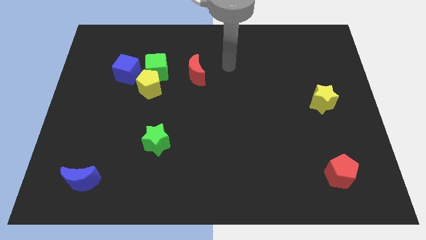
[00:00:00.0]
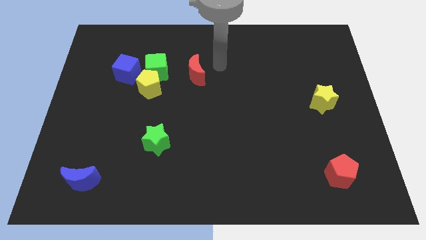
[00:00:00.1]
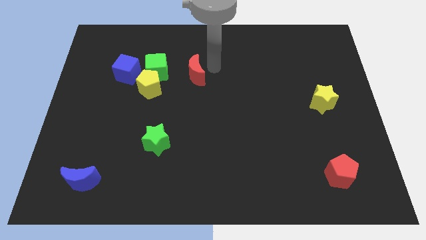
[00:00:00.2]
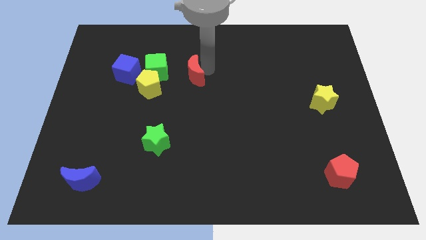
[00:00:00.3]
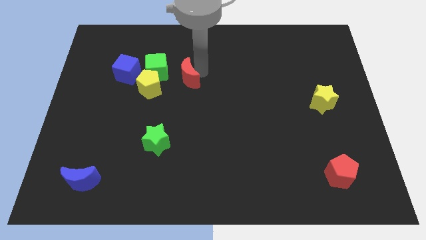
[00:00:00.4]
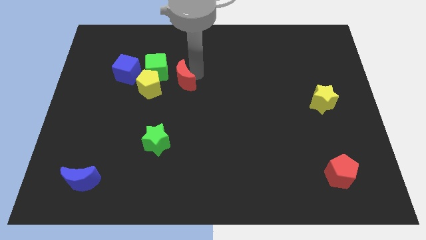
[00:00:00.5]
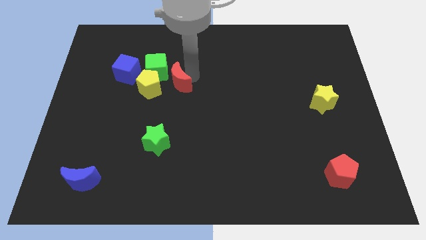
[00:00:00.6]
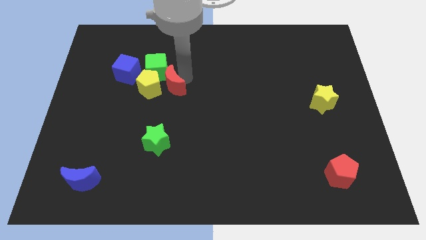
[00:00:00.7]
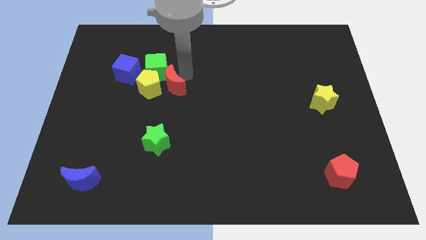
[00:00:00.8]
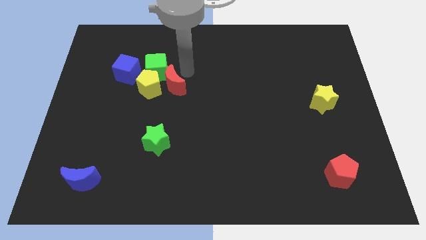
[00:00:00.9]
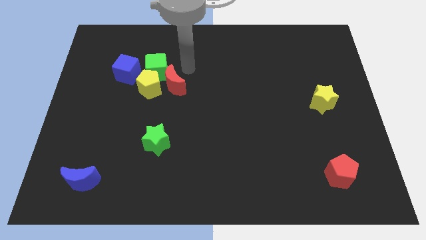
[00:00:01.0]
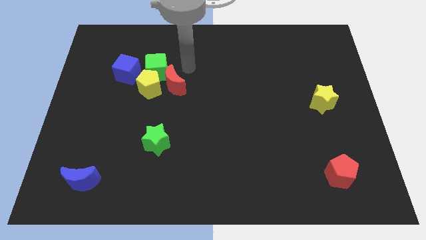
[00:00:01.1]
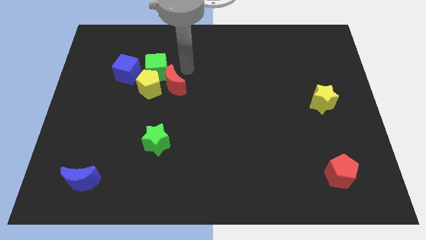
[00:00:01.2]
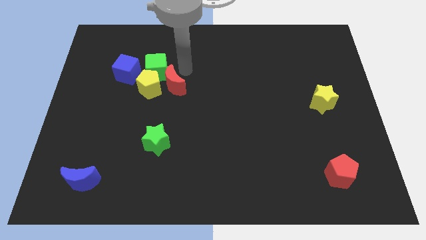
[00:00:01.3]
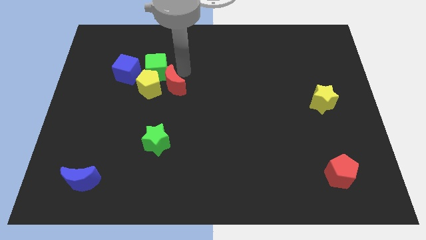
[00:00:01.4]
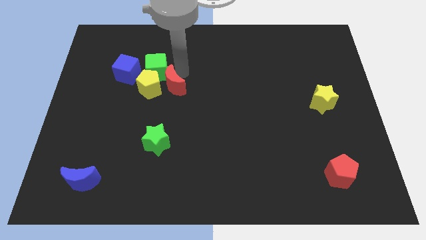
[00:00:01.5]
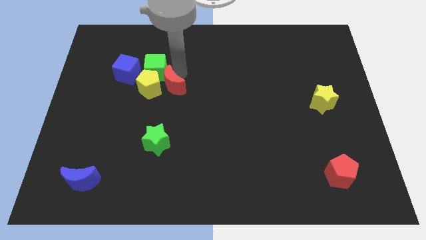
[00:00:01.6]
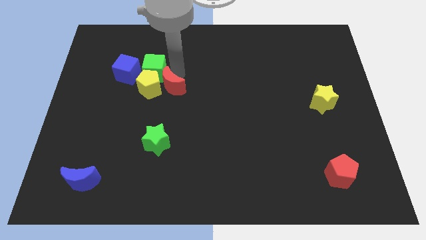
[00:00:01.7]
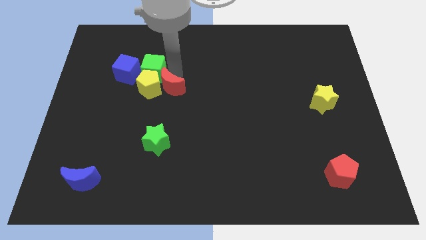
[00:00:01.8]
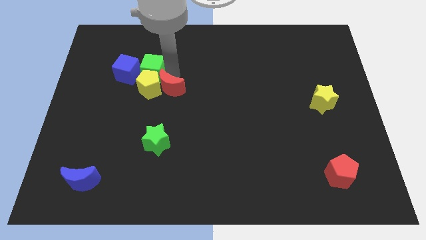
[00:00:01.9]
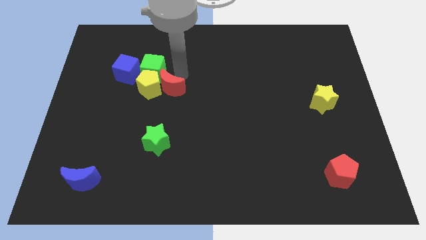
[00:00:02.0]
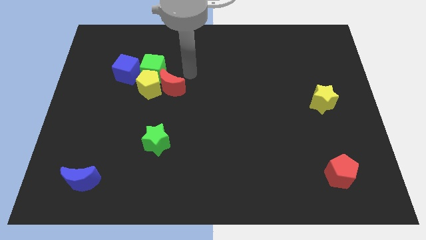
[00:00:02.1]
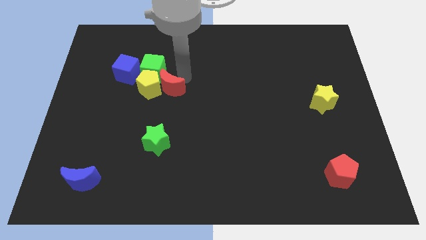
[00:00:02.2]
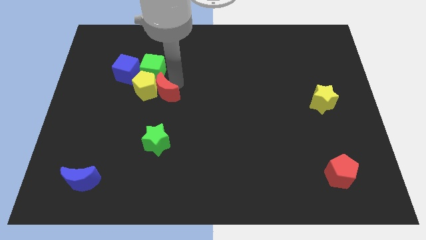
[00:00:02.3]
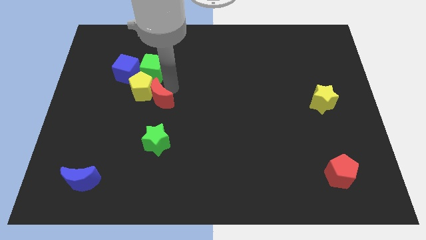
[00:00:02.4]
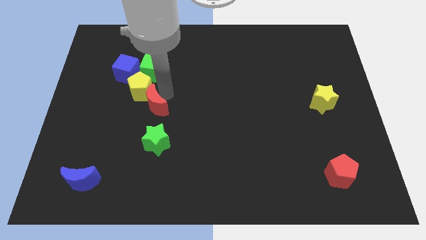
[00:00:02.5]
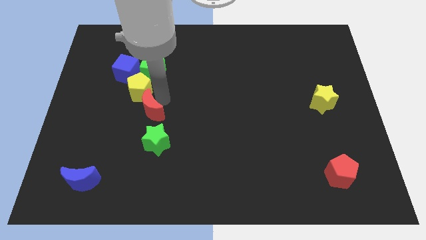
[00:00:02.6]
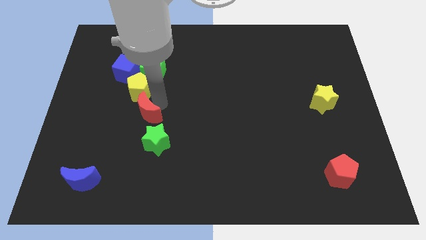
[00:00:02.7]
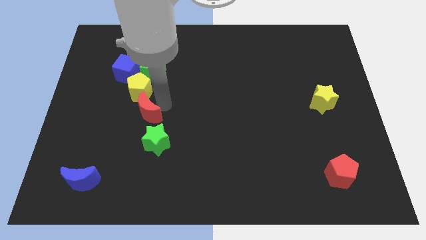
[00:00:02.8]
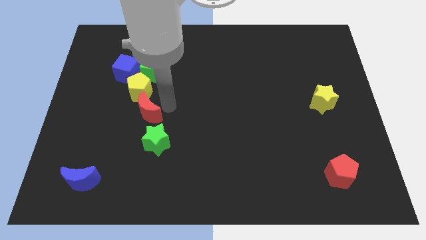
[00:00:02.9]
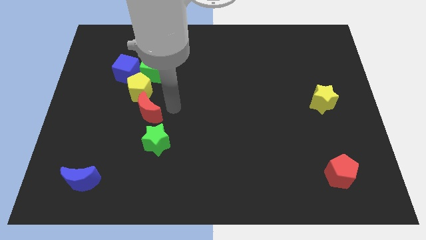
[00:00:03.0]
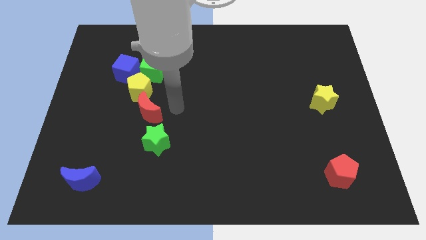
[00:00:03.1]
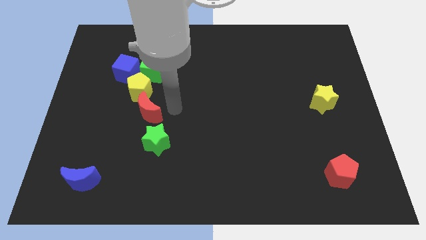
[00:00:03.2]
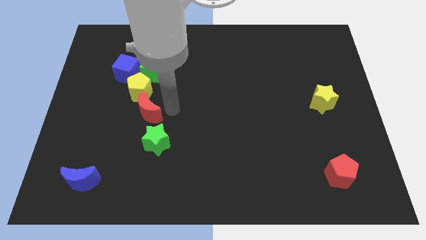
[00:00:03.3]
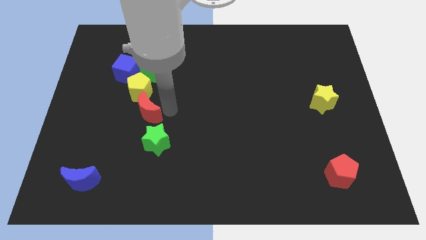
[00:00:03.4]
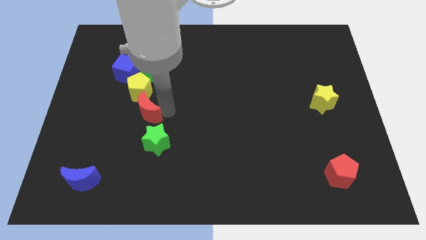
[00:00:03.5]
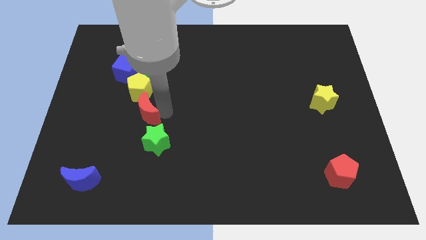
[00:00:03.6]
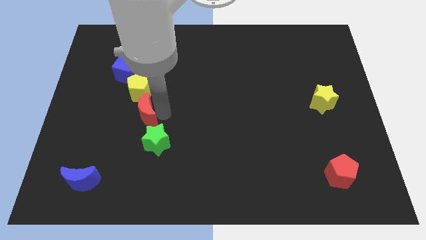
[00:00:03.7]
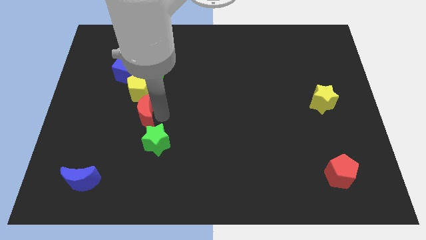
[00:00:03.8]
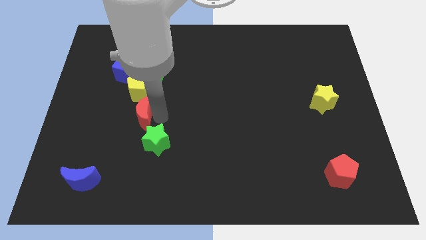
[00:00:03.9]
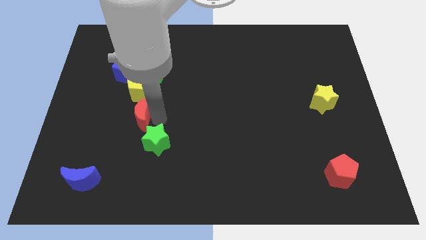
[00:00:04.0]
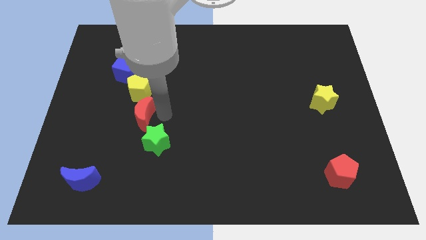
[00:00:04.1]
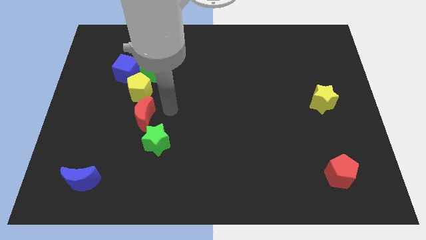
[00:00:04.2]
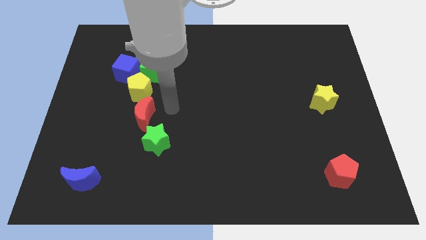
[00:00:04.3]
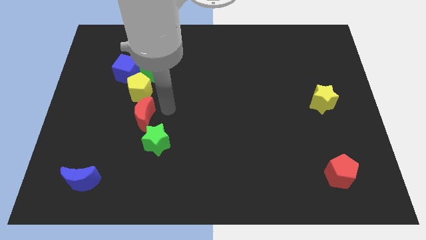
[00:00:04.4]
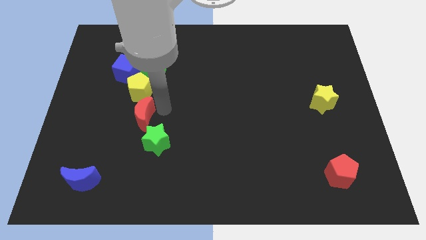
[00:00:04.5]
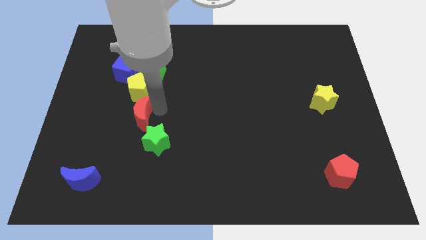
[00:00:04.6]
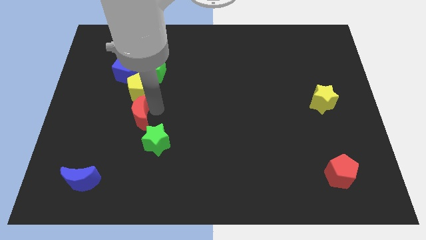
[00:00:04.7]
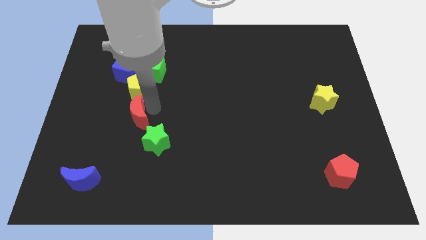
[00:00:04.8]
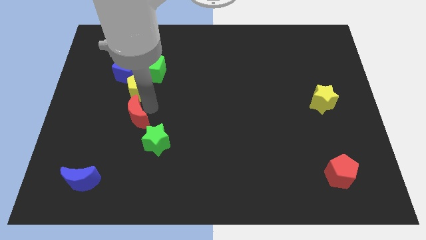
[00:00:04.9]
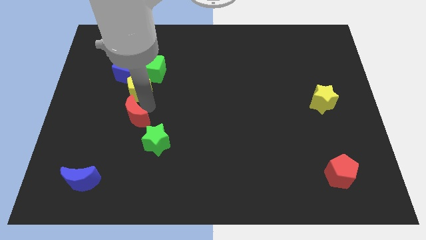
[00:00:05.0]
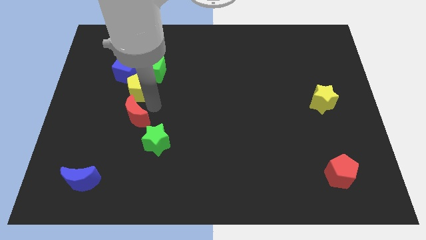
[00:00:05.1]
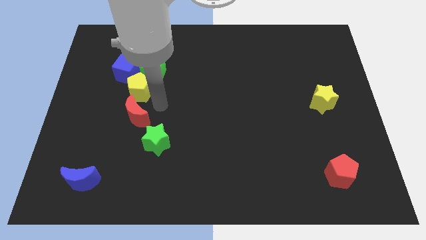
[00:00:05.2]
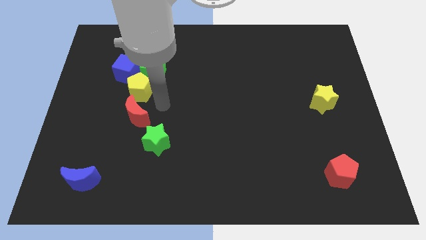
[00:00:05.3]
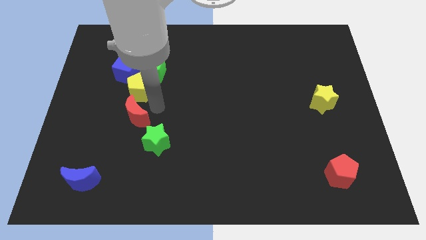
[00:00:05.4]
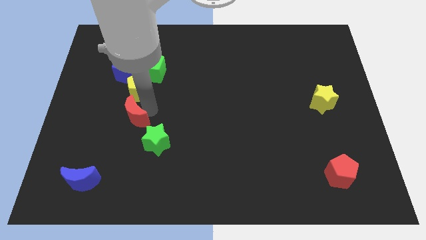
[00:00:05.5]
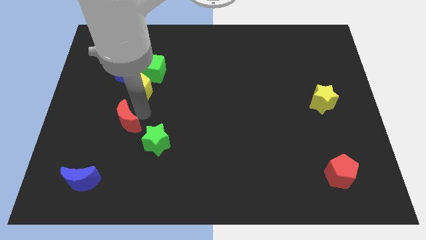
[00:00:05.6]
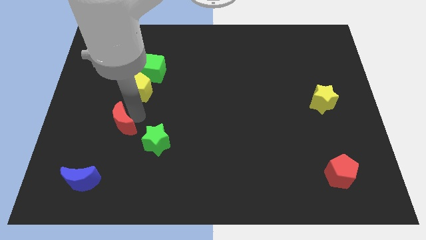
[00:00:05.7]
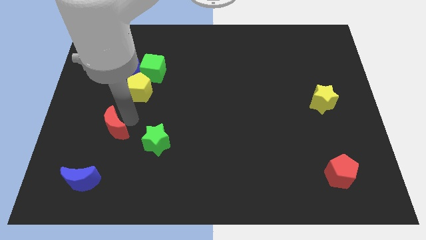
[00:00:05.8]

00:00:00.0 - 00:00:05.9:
move the red moon above the blue moon
